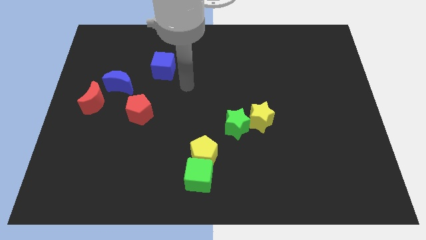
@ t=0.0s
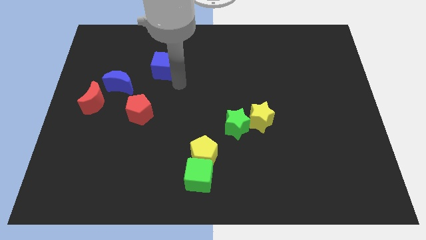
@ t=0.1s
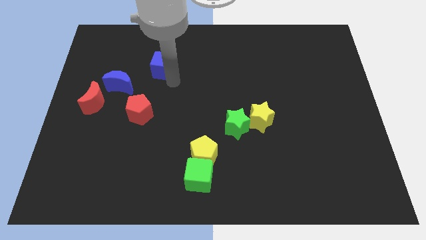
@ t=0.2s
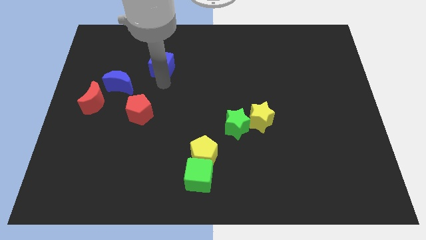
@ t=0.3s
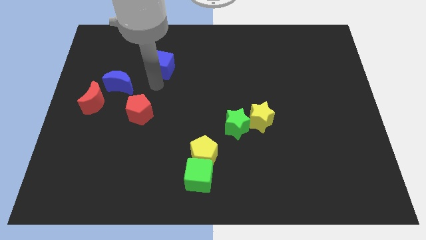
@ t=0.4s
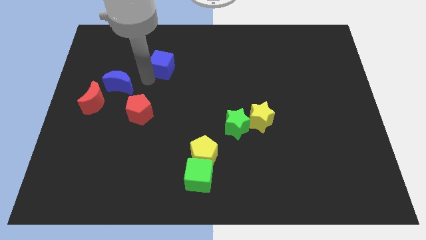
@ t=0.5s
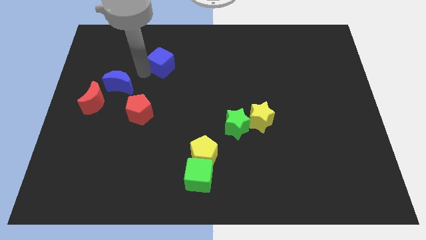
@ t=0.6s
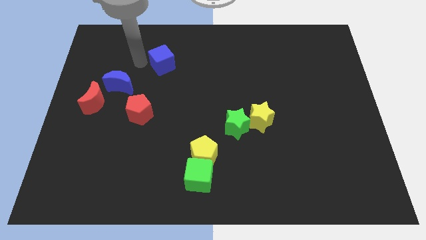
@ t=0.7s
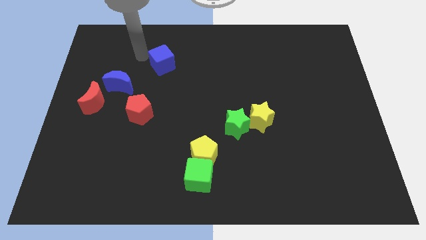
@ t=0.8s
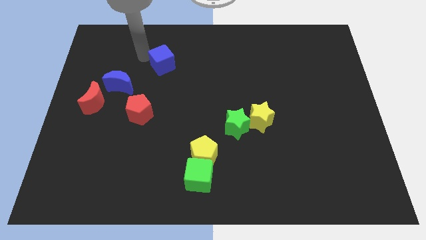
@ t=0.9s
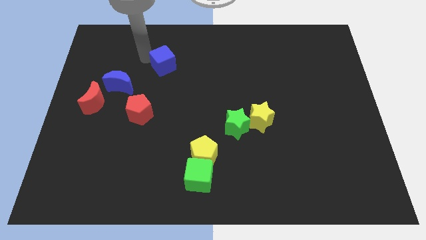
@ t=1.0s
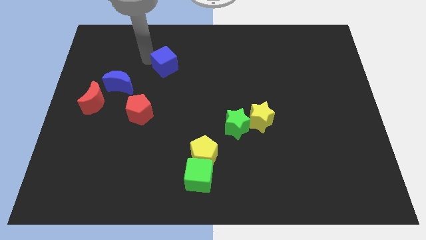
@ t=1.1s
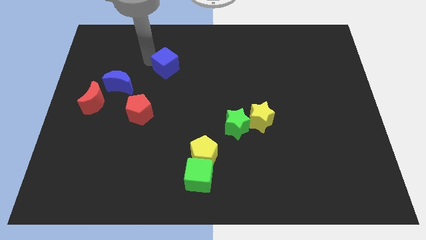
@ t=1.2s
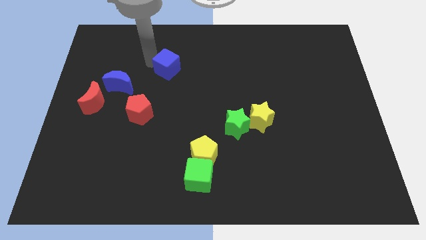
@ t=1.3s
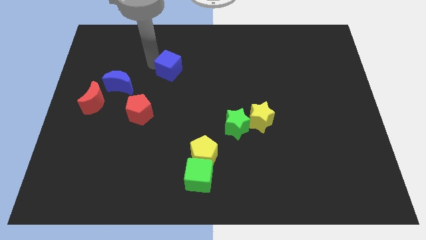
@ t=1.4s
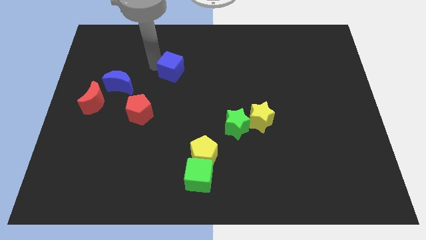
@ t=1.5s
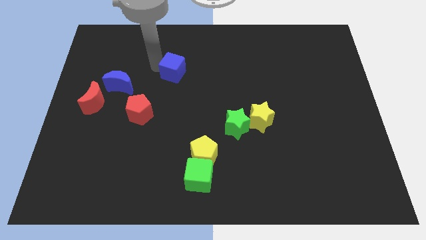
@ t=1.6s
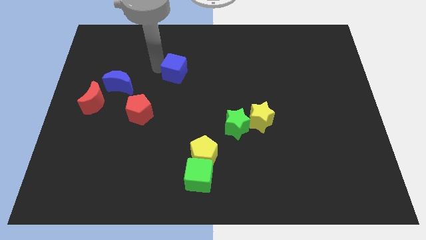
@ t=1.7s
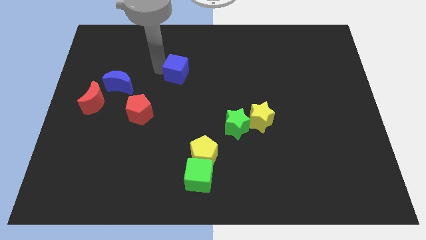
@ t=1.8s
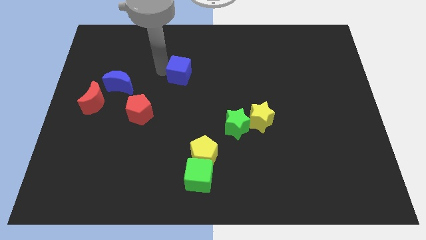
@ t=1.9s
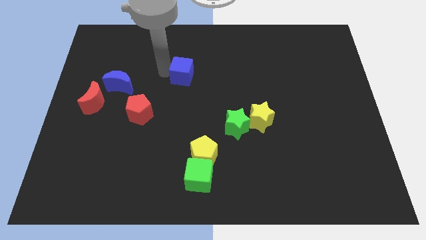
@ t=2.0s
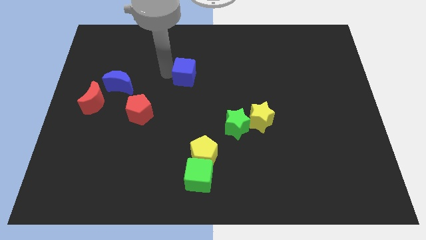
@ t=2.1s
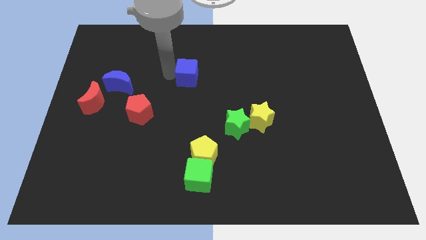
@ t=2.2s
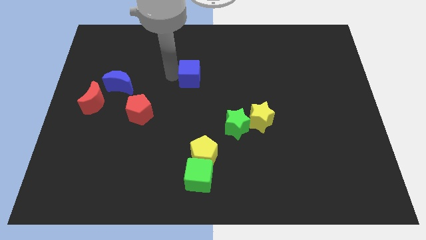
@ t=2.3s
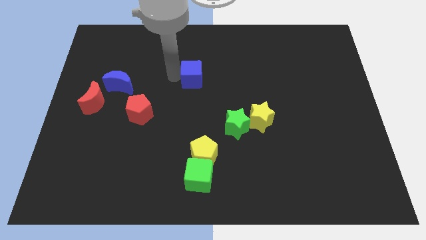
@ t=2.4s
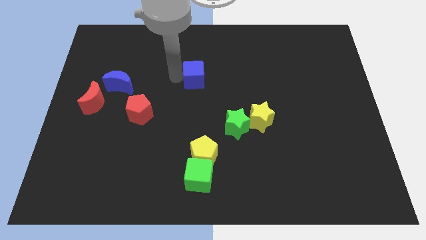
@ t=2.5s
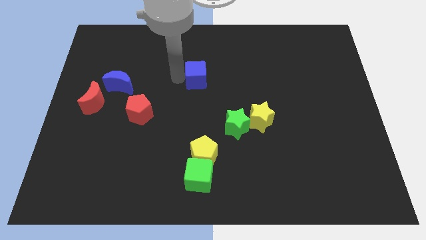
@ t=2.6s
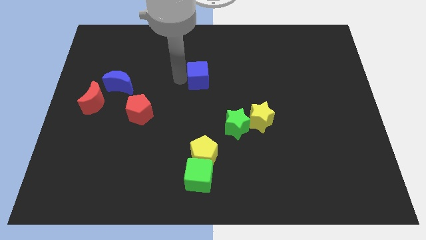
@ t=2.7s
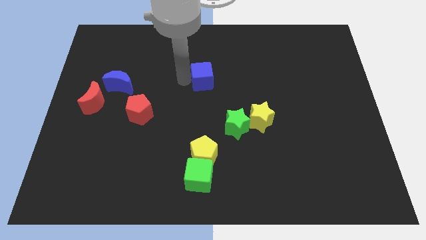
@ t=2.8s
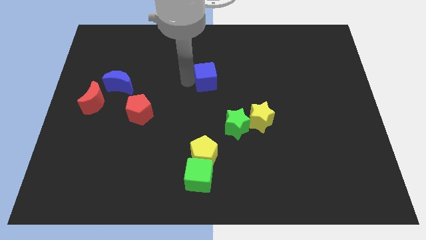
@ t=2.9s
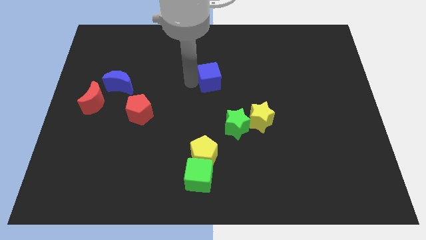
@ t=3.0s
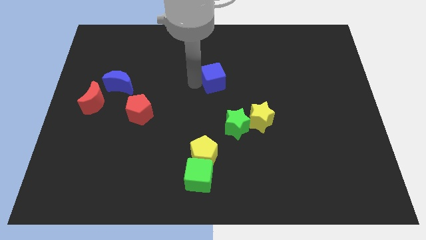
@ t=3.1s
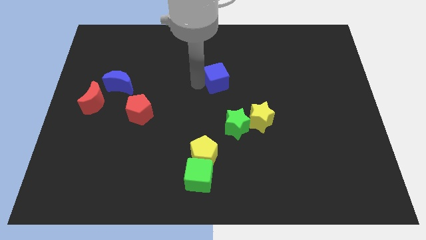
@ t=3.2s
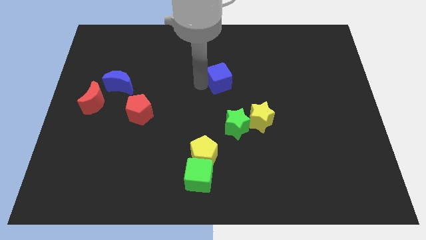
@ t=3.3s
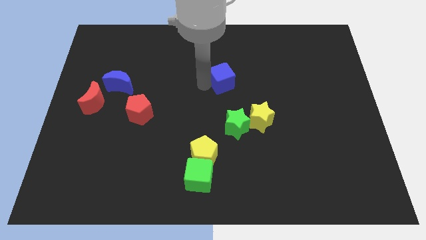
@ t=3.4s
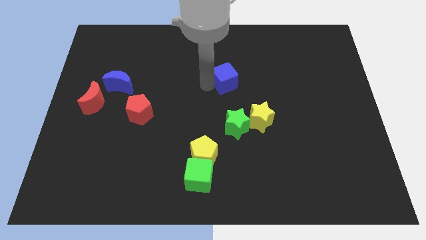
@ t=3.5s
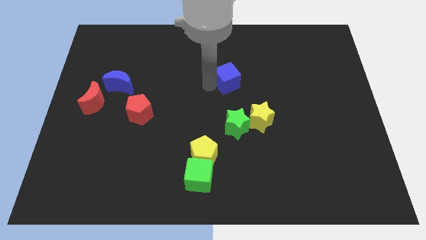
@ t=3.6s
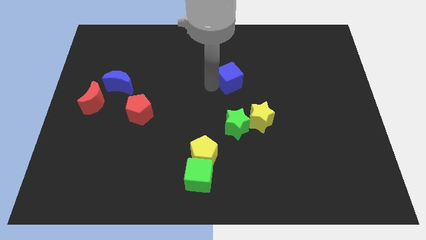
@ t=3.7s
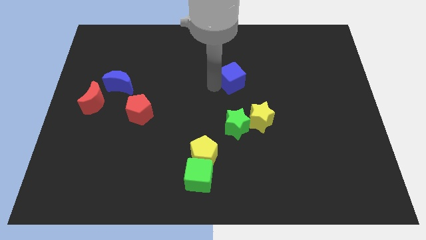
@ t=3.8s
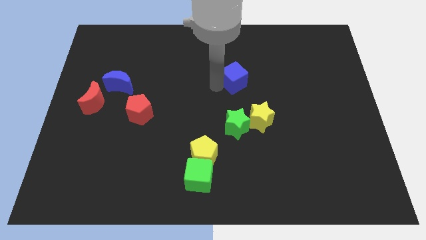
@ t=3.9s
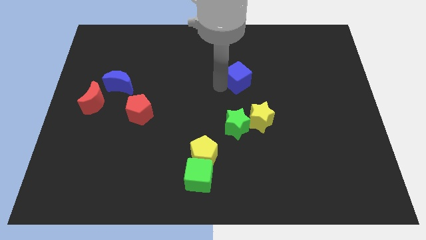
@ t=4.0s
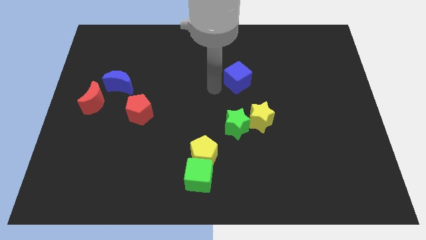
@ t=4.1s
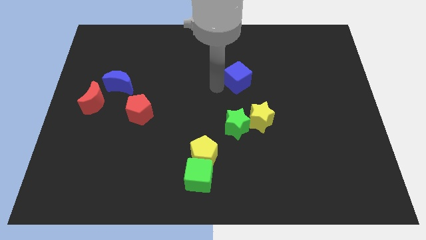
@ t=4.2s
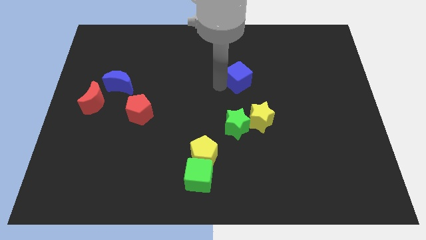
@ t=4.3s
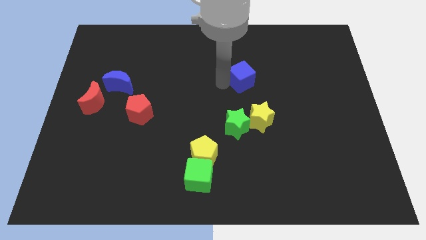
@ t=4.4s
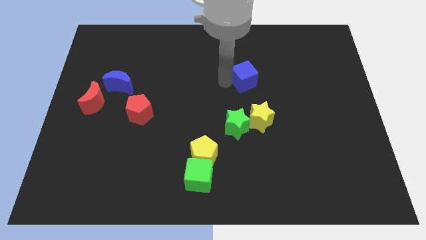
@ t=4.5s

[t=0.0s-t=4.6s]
move the blue cube to the right

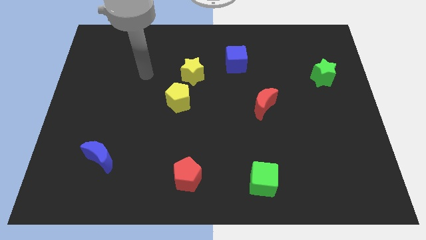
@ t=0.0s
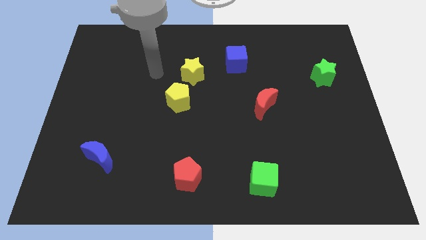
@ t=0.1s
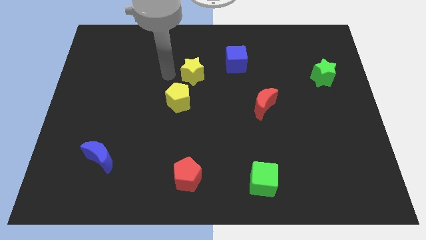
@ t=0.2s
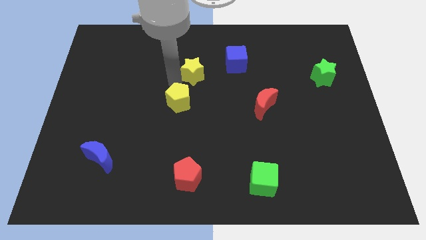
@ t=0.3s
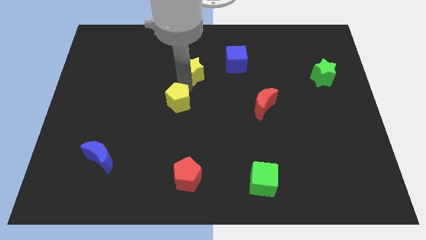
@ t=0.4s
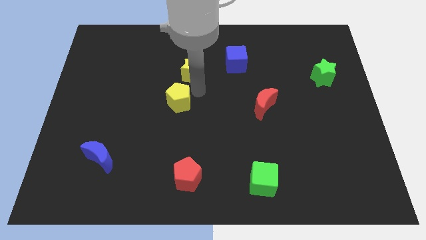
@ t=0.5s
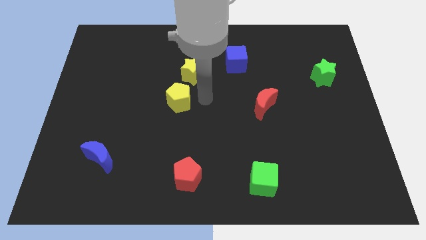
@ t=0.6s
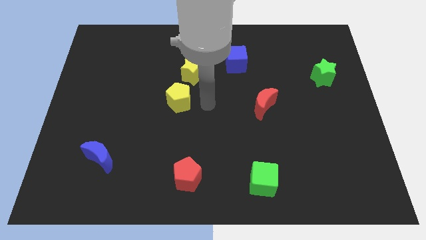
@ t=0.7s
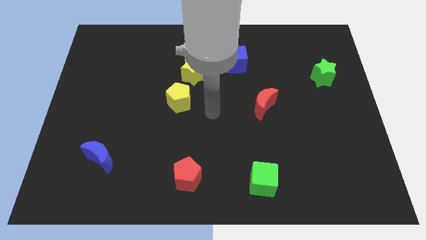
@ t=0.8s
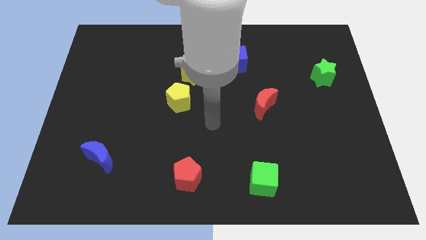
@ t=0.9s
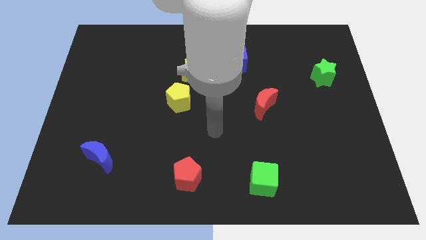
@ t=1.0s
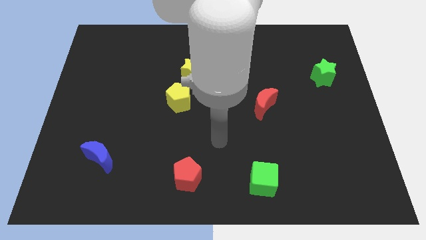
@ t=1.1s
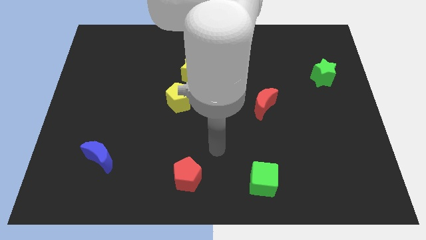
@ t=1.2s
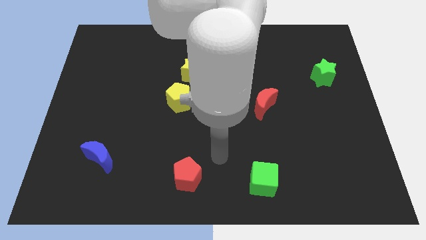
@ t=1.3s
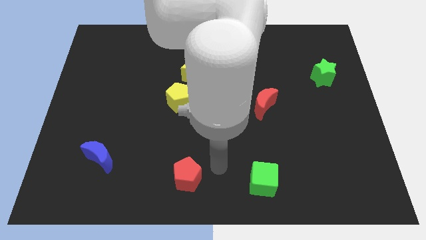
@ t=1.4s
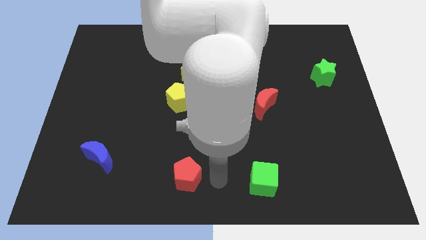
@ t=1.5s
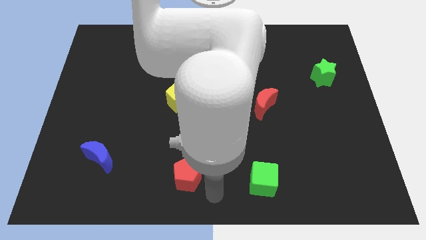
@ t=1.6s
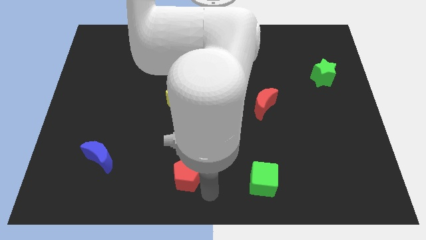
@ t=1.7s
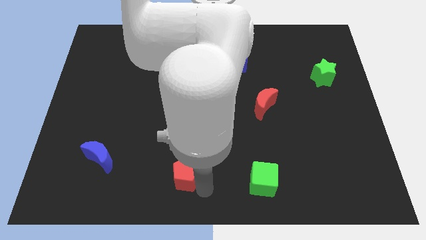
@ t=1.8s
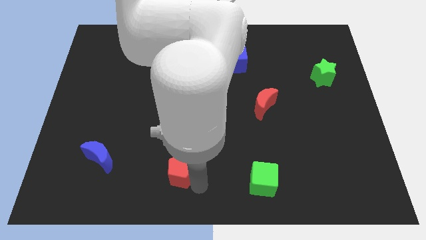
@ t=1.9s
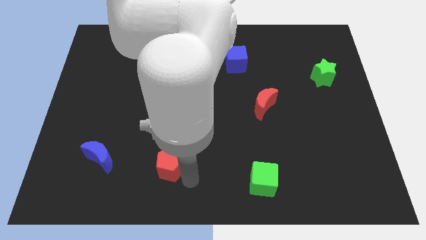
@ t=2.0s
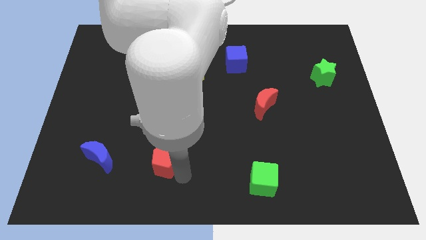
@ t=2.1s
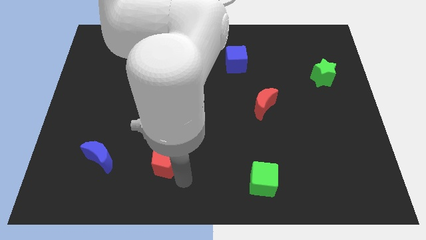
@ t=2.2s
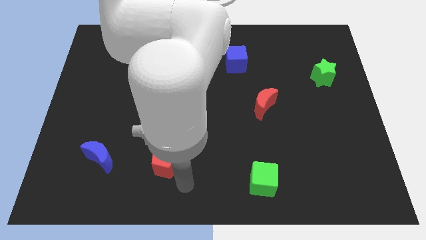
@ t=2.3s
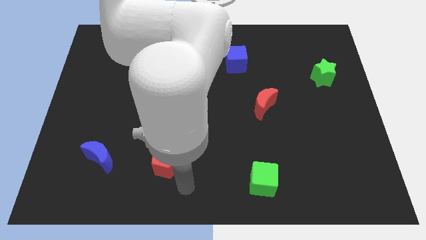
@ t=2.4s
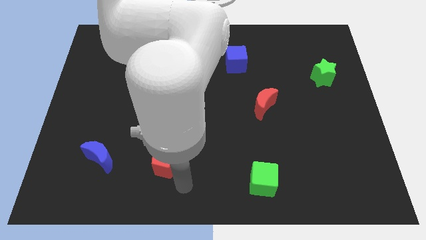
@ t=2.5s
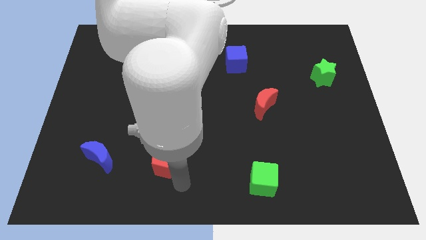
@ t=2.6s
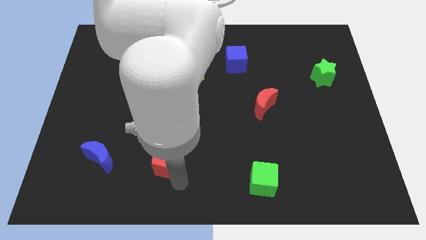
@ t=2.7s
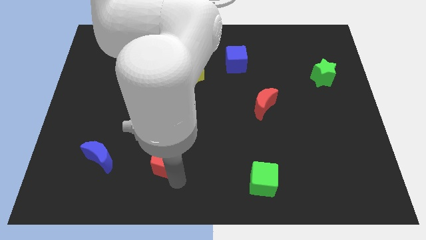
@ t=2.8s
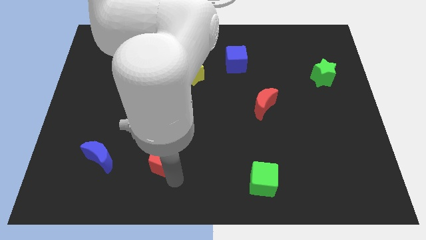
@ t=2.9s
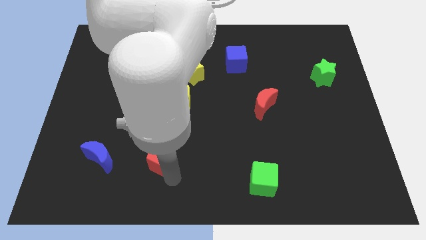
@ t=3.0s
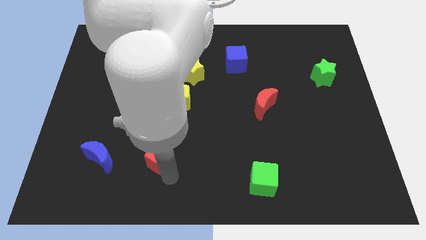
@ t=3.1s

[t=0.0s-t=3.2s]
move the red pentagon somewhat up and left
